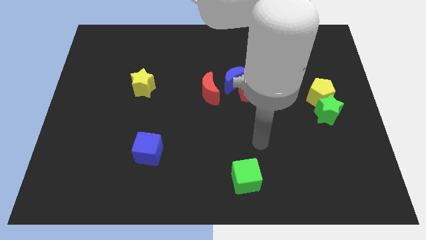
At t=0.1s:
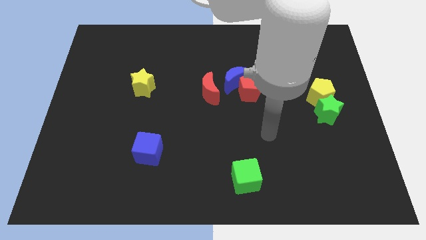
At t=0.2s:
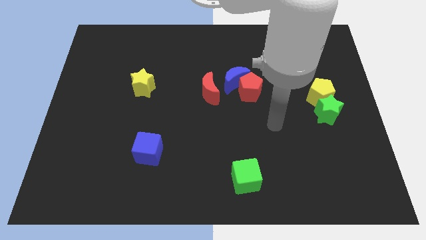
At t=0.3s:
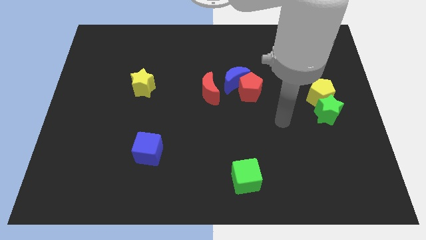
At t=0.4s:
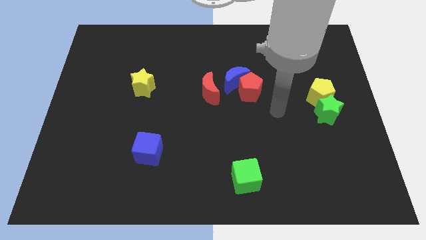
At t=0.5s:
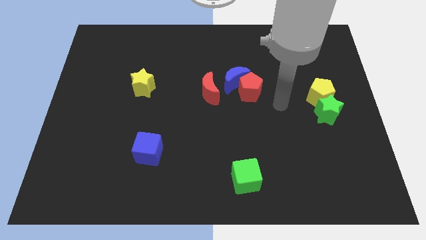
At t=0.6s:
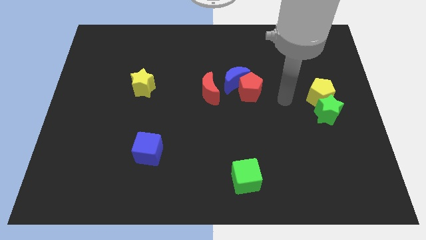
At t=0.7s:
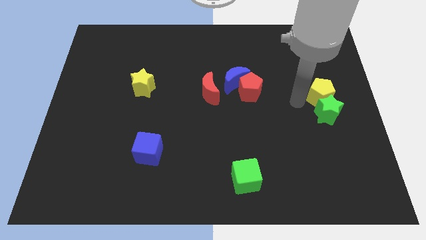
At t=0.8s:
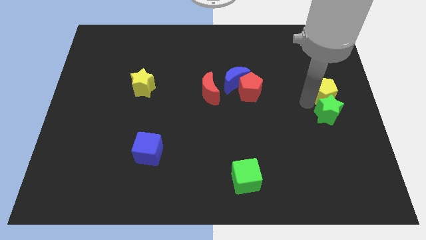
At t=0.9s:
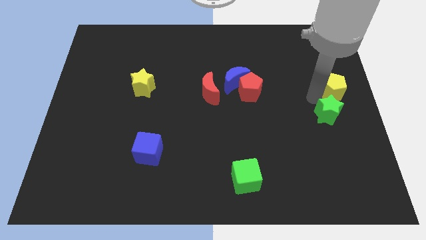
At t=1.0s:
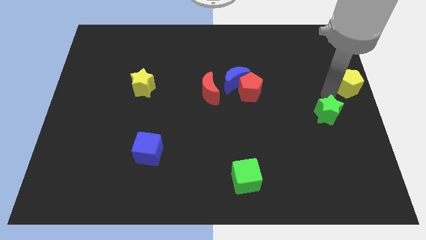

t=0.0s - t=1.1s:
separate the green star from the yellow pentagon

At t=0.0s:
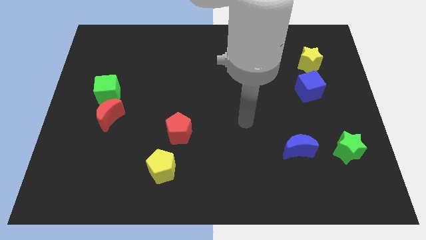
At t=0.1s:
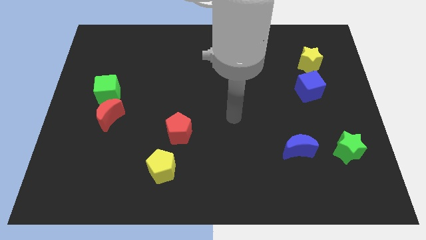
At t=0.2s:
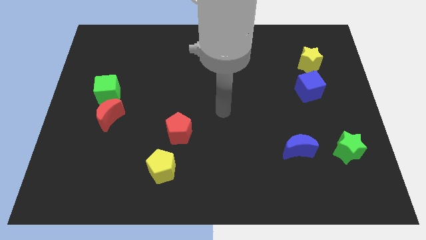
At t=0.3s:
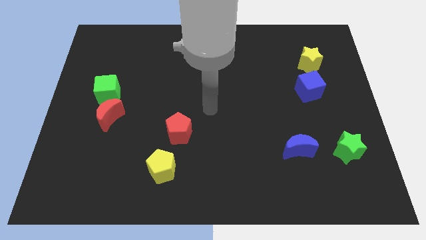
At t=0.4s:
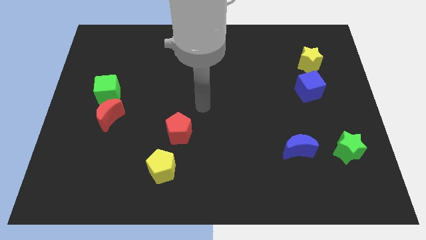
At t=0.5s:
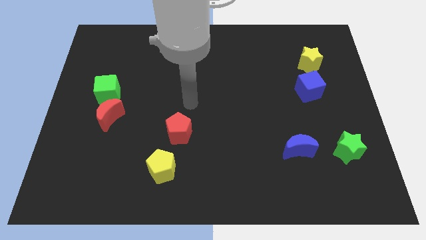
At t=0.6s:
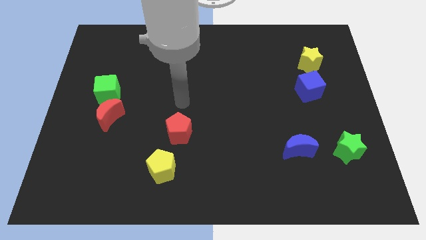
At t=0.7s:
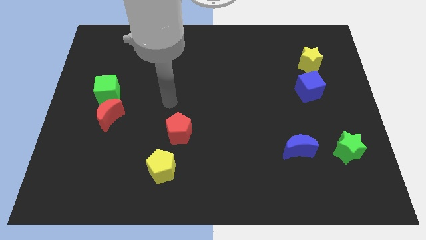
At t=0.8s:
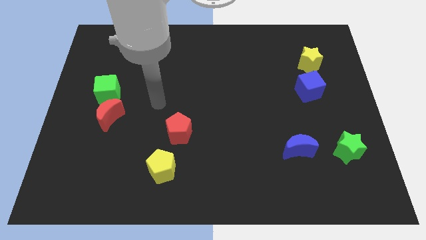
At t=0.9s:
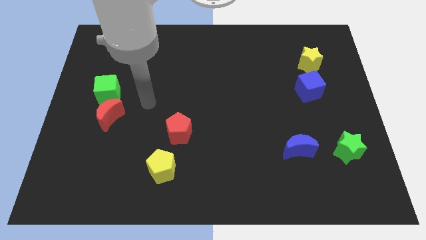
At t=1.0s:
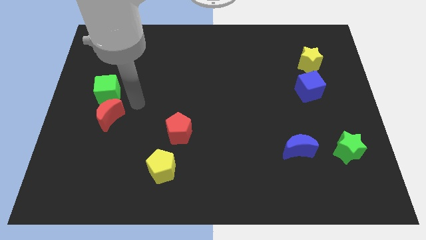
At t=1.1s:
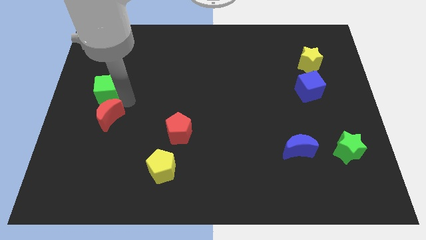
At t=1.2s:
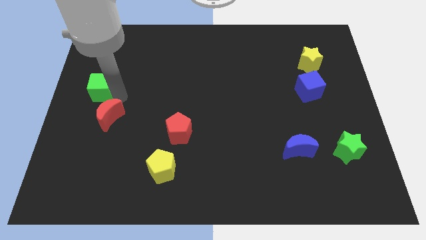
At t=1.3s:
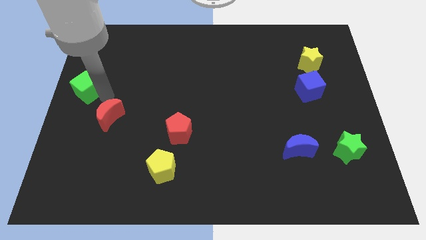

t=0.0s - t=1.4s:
separate the red moon from the green cube

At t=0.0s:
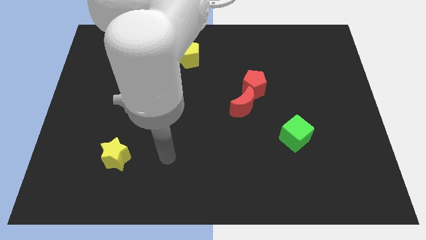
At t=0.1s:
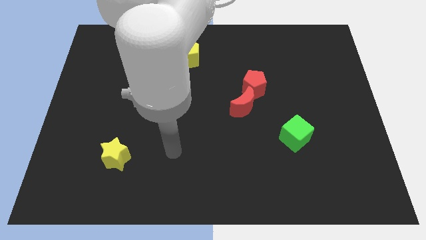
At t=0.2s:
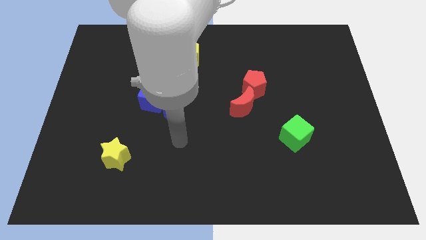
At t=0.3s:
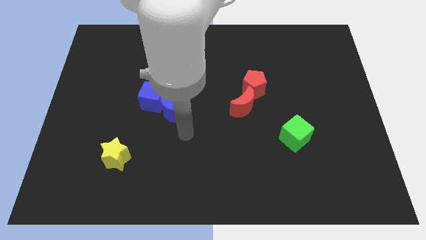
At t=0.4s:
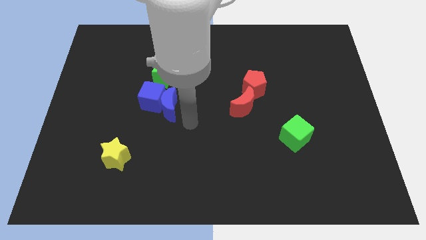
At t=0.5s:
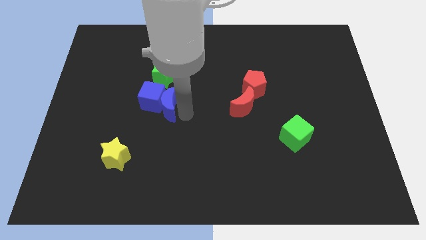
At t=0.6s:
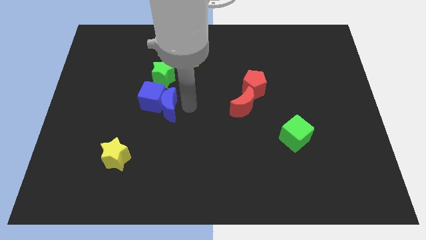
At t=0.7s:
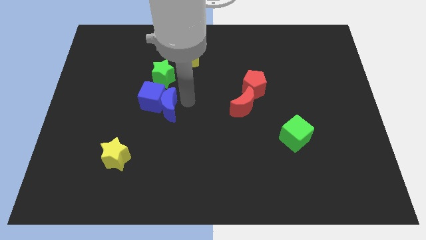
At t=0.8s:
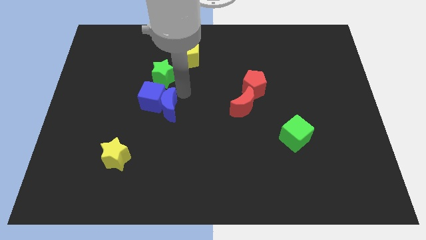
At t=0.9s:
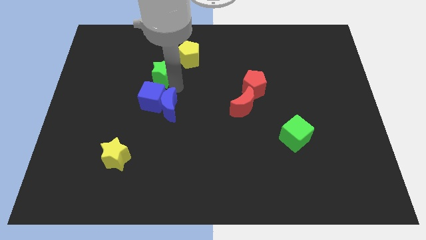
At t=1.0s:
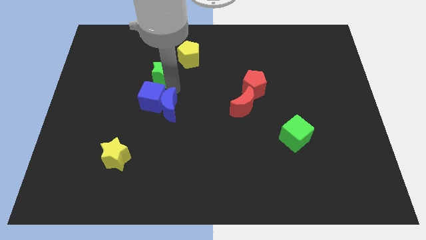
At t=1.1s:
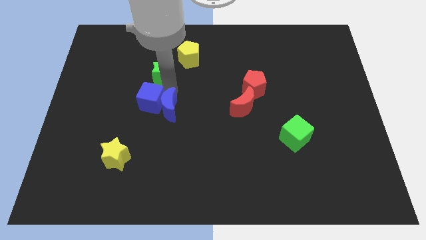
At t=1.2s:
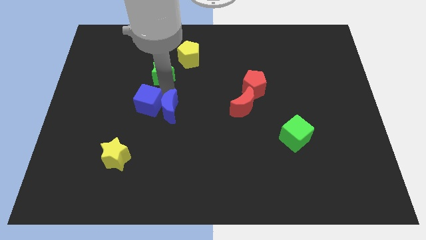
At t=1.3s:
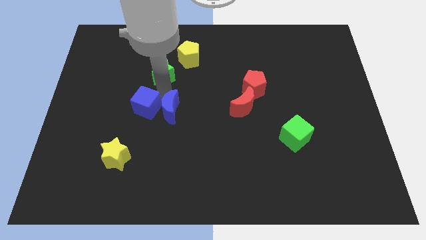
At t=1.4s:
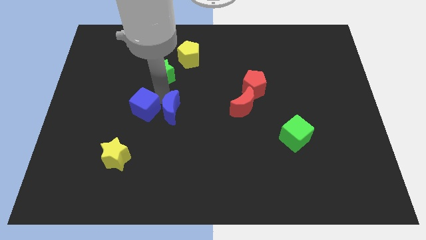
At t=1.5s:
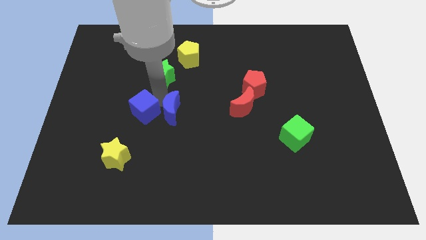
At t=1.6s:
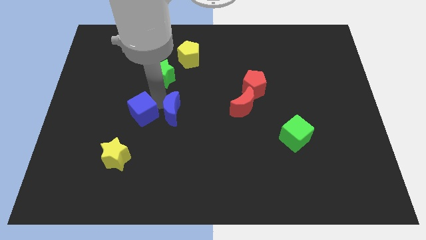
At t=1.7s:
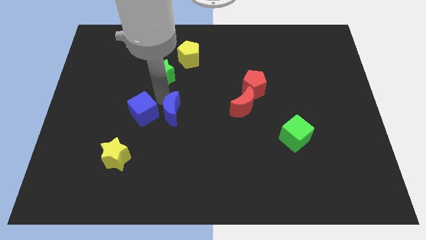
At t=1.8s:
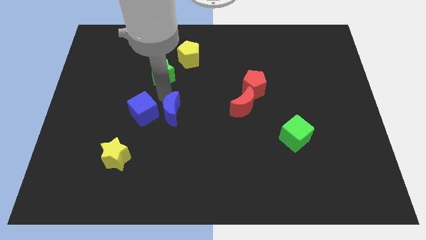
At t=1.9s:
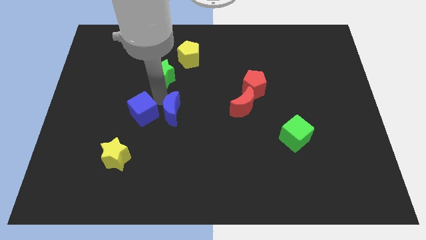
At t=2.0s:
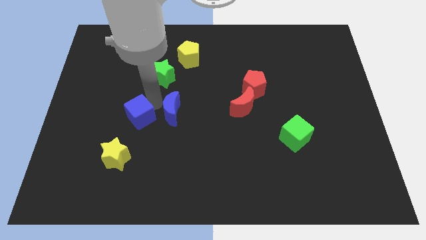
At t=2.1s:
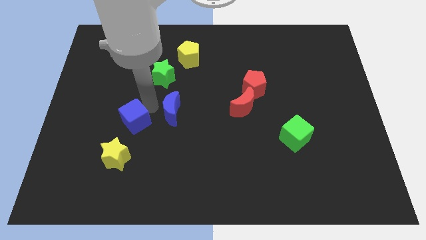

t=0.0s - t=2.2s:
pull the blue cube apart from the blue moon and green star

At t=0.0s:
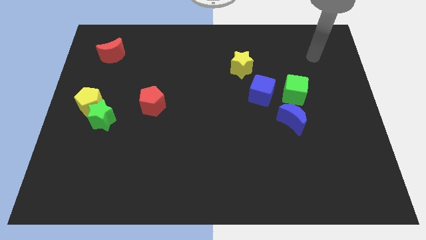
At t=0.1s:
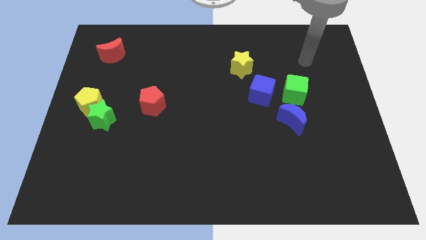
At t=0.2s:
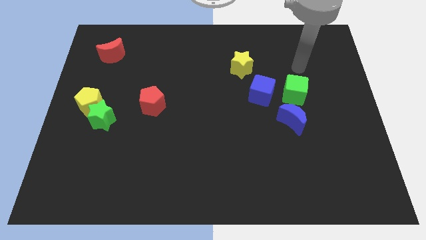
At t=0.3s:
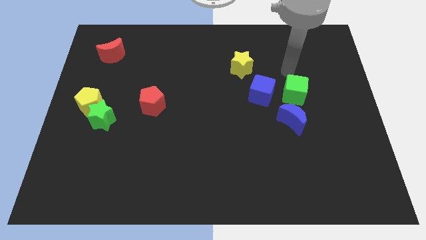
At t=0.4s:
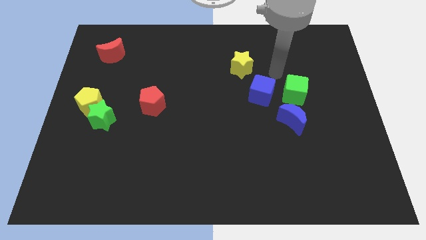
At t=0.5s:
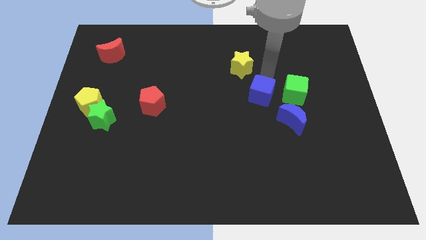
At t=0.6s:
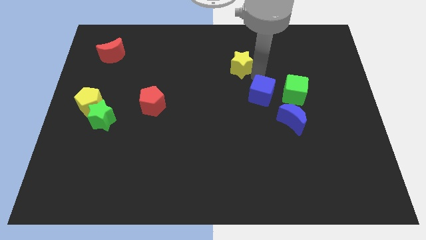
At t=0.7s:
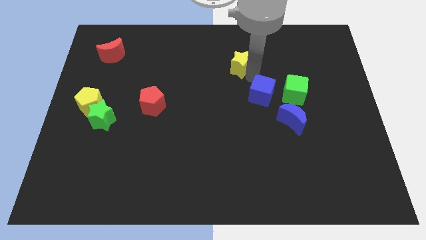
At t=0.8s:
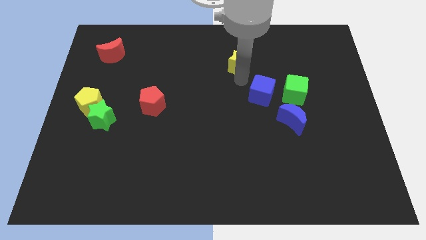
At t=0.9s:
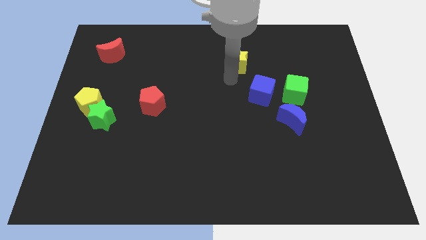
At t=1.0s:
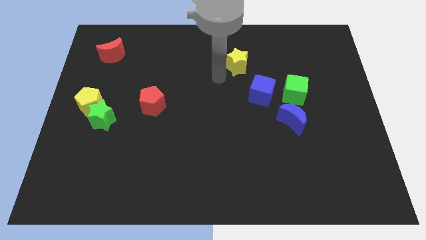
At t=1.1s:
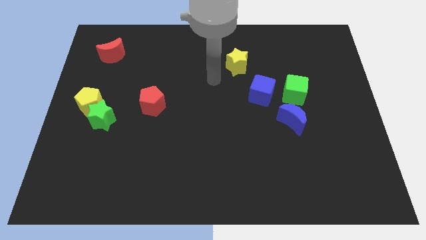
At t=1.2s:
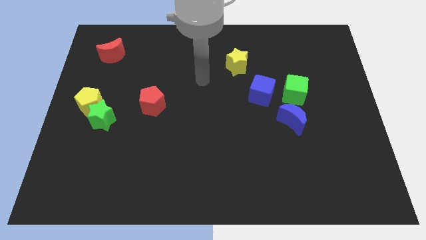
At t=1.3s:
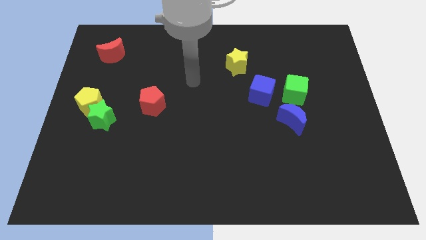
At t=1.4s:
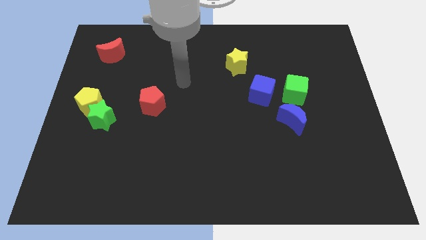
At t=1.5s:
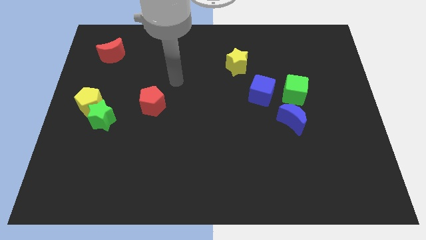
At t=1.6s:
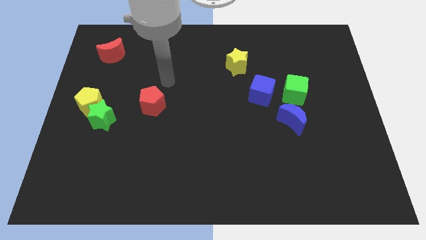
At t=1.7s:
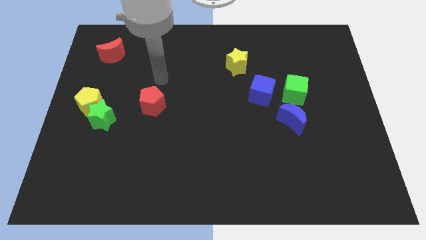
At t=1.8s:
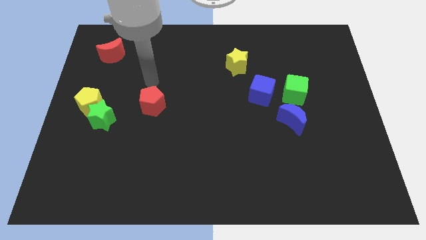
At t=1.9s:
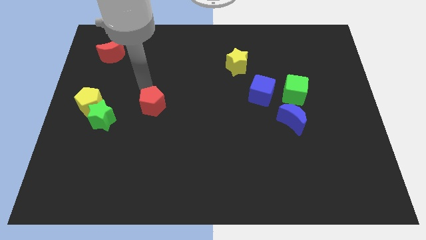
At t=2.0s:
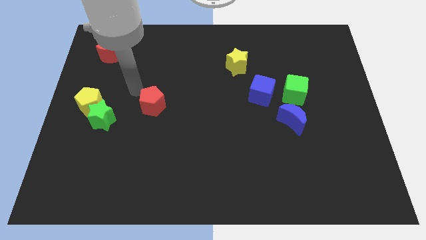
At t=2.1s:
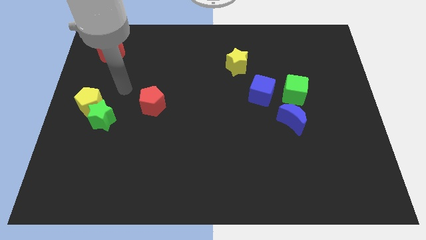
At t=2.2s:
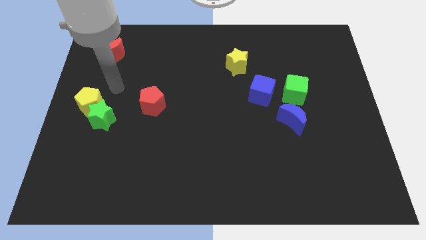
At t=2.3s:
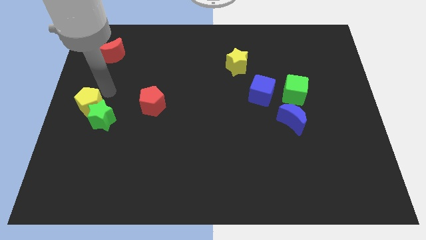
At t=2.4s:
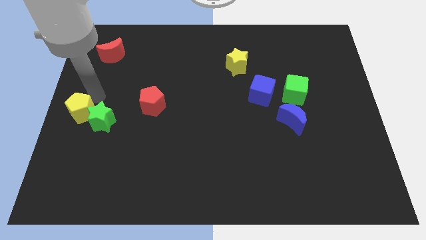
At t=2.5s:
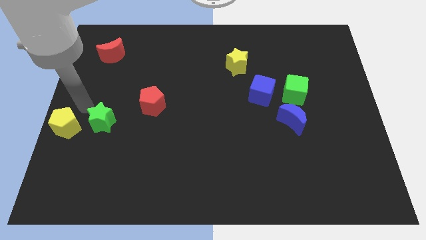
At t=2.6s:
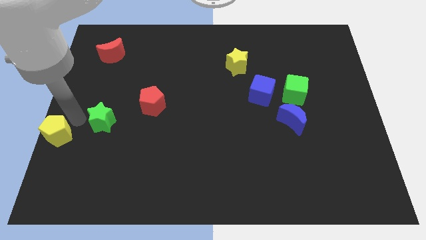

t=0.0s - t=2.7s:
move the green star away from the yellow pentagon

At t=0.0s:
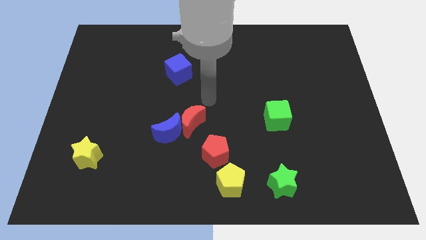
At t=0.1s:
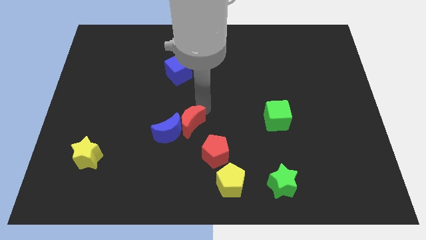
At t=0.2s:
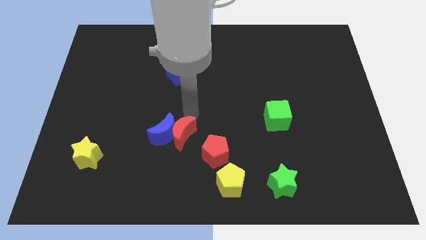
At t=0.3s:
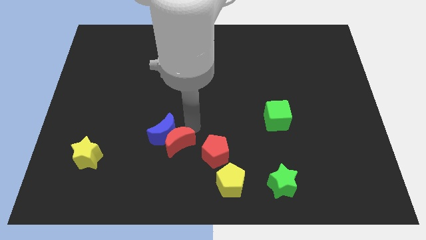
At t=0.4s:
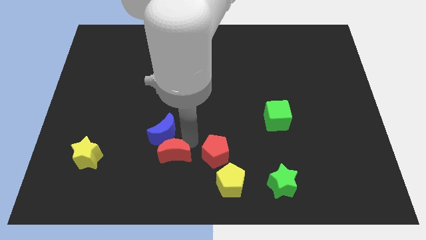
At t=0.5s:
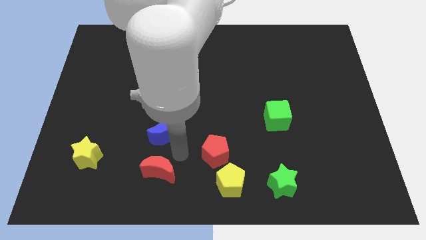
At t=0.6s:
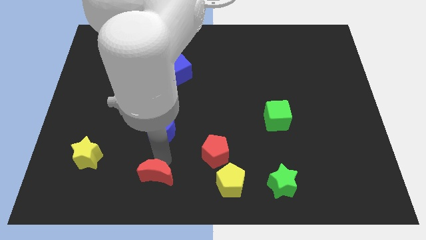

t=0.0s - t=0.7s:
pull the blue moon apart from the red moon

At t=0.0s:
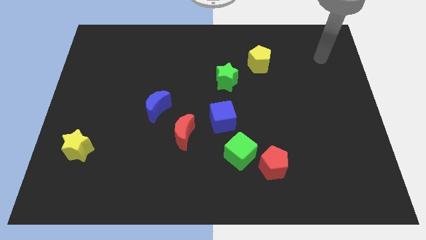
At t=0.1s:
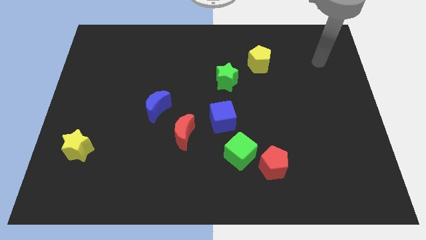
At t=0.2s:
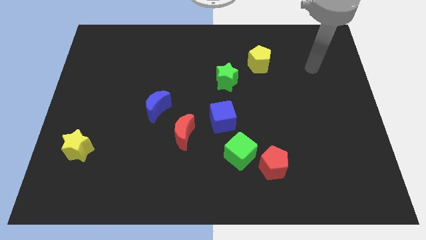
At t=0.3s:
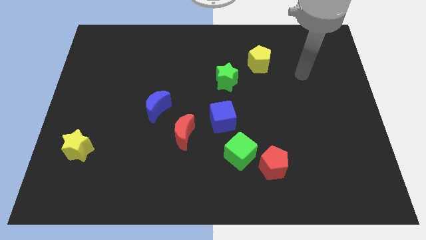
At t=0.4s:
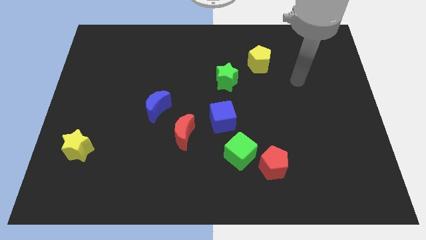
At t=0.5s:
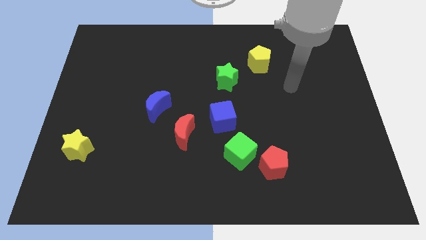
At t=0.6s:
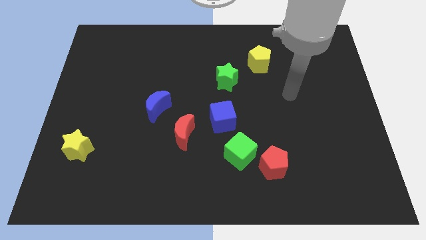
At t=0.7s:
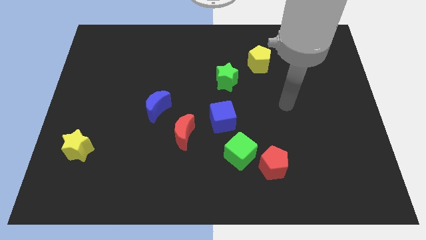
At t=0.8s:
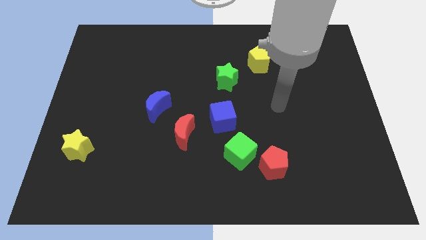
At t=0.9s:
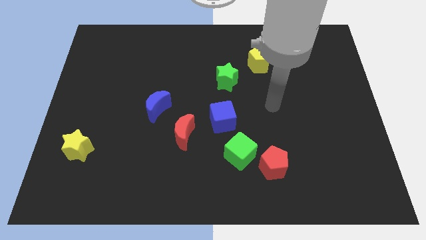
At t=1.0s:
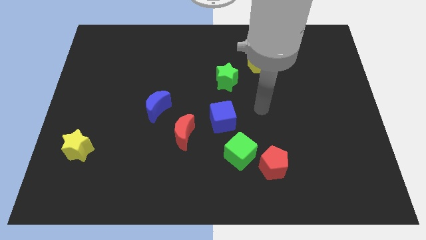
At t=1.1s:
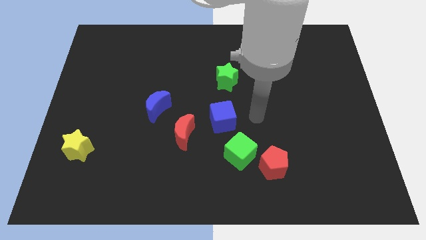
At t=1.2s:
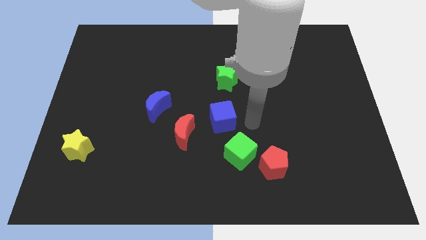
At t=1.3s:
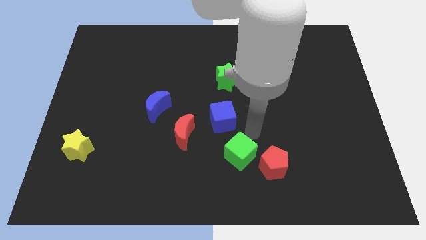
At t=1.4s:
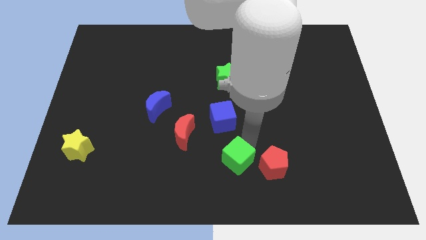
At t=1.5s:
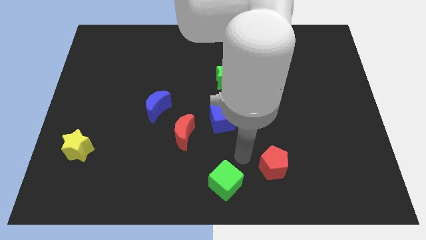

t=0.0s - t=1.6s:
move the red pentagon away from the green cube
